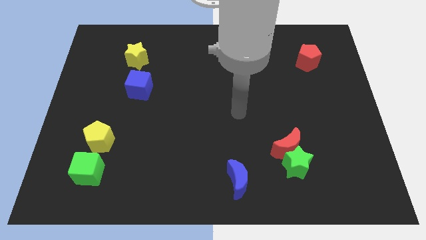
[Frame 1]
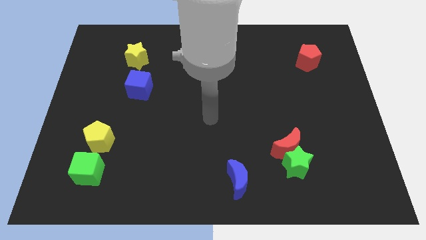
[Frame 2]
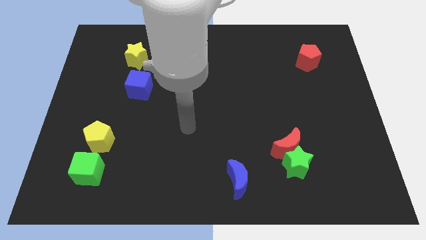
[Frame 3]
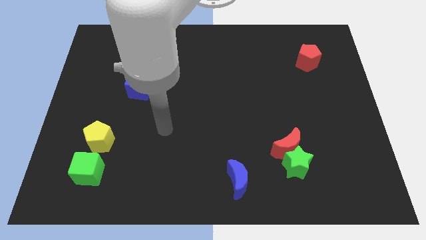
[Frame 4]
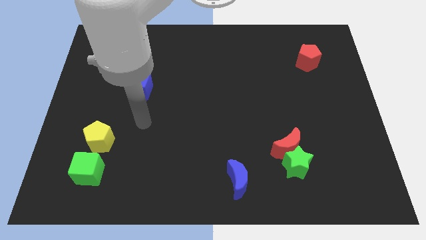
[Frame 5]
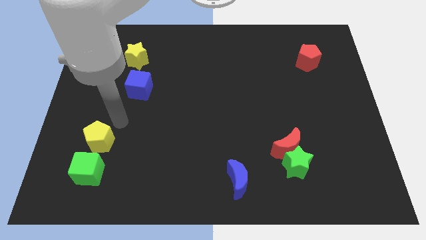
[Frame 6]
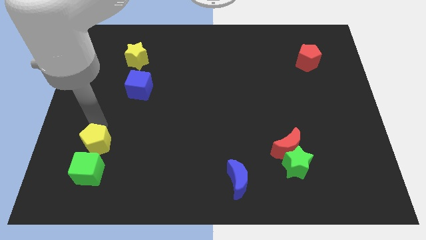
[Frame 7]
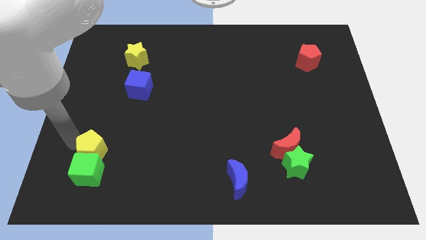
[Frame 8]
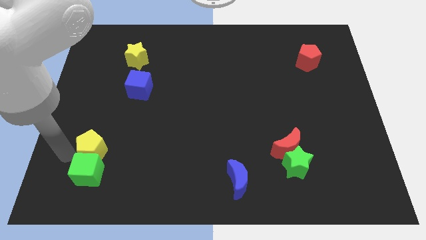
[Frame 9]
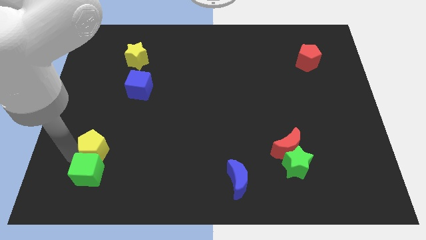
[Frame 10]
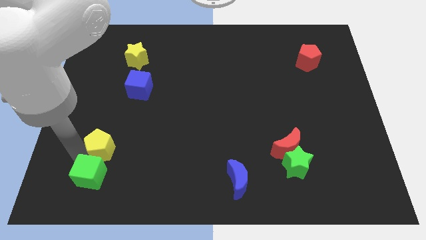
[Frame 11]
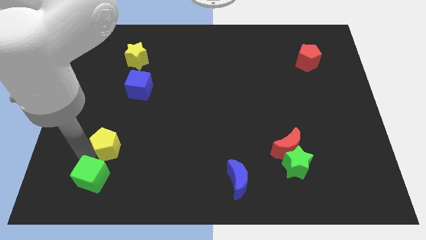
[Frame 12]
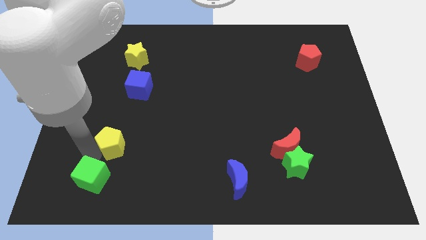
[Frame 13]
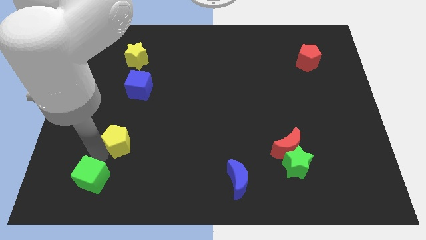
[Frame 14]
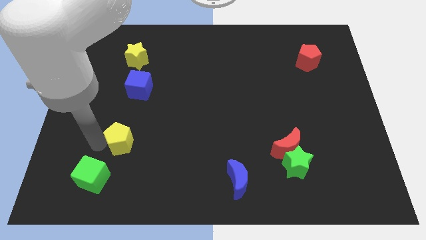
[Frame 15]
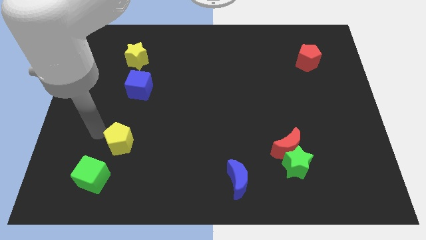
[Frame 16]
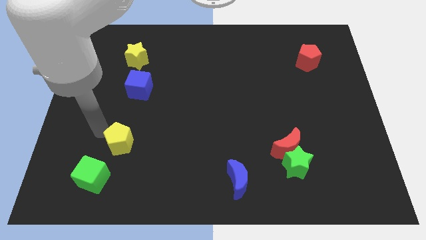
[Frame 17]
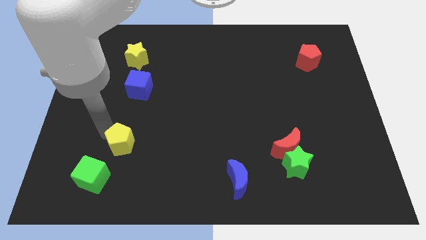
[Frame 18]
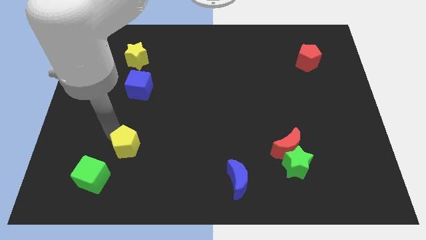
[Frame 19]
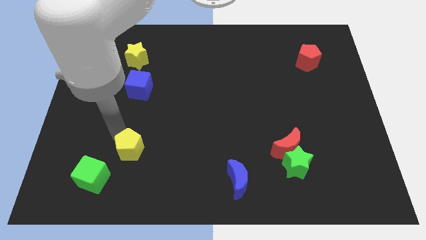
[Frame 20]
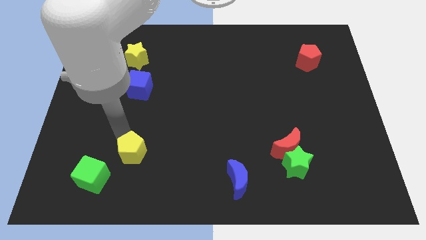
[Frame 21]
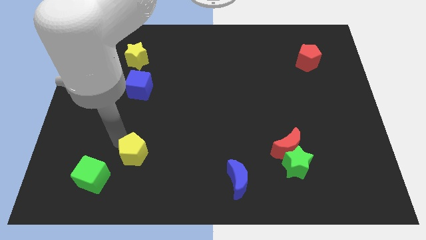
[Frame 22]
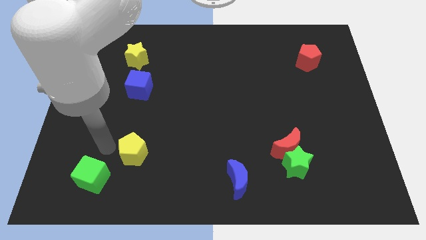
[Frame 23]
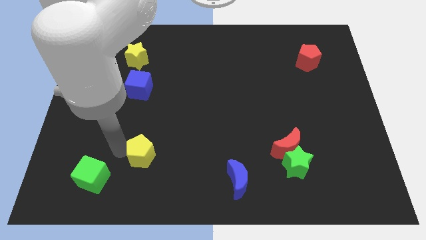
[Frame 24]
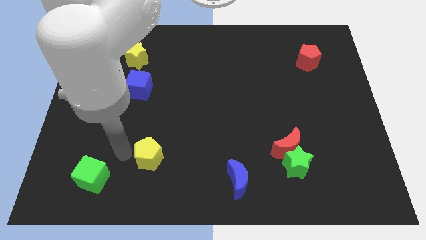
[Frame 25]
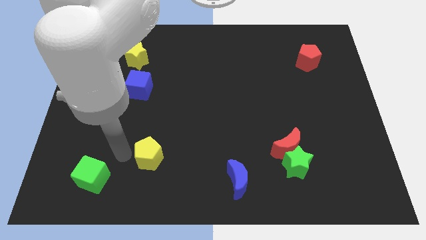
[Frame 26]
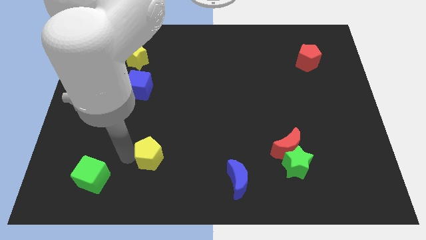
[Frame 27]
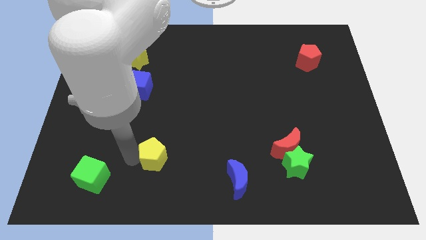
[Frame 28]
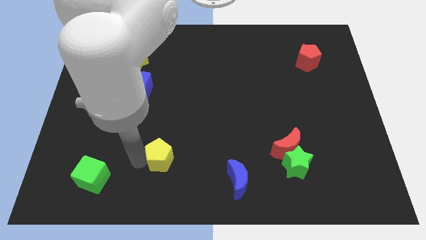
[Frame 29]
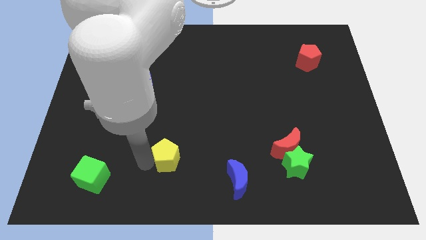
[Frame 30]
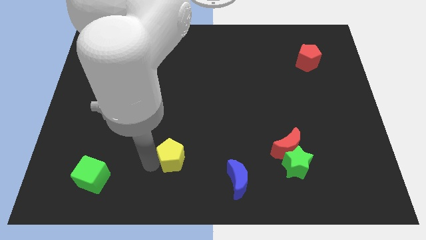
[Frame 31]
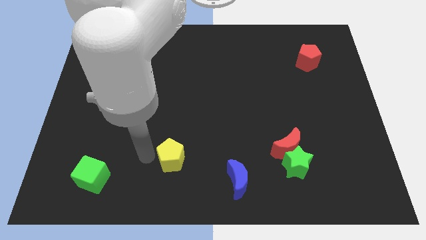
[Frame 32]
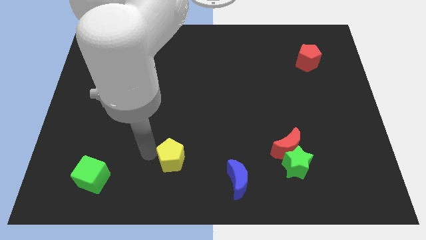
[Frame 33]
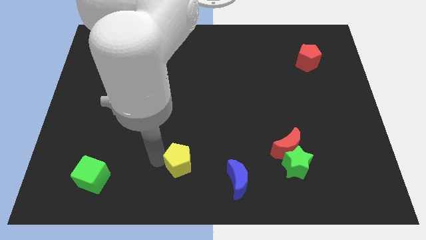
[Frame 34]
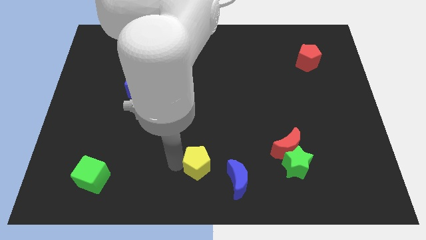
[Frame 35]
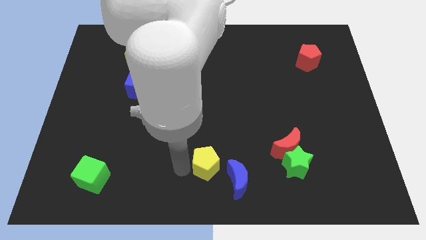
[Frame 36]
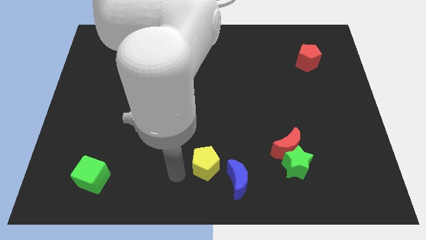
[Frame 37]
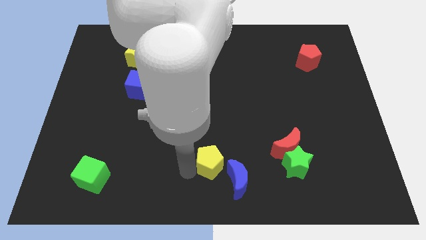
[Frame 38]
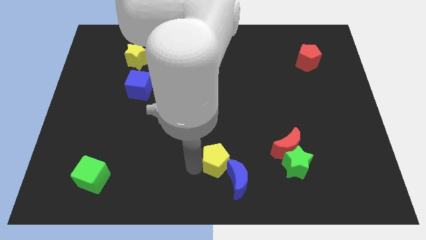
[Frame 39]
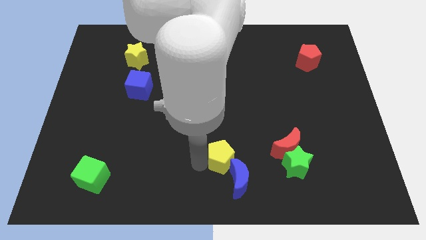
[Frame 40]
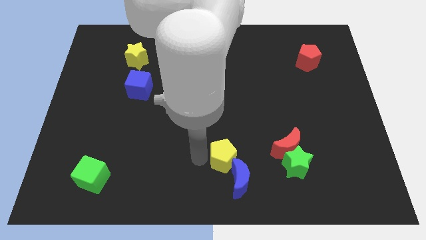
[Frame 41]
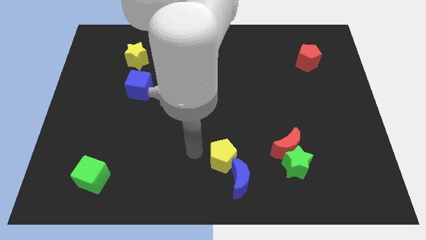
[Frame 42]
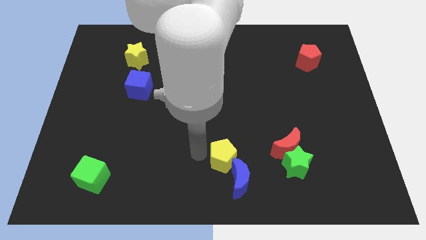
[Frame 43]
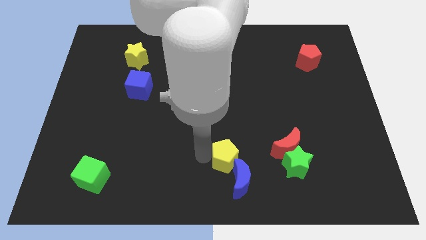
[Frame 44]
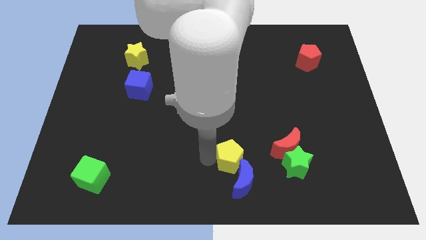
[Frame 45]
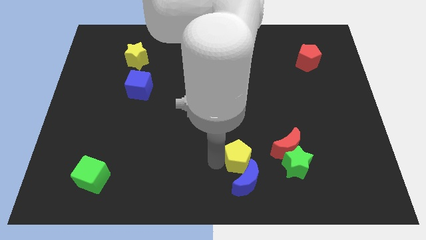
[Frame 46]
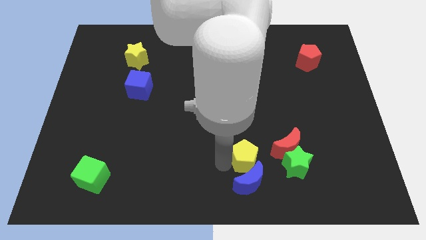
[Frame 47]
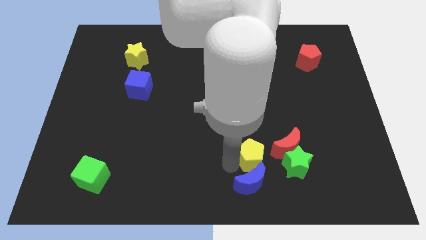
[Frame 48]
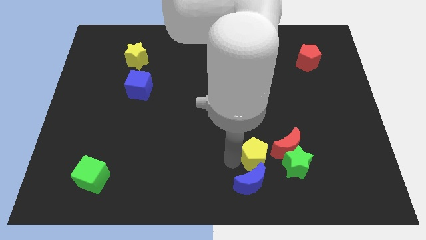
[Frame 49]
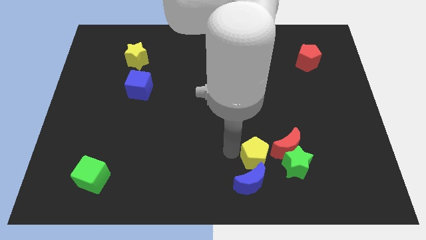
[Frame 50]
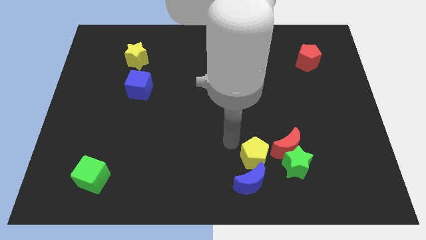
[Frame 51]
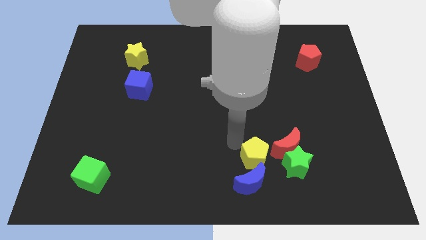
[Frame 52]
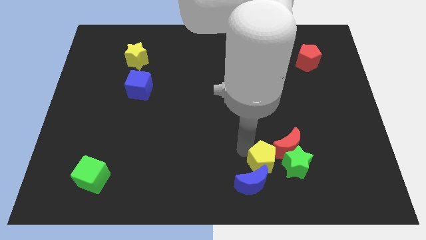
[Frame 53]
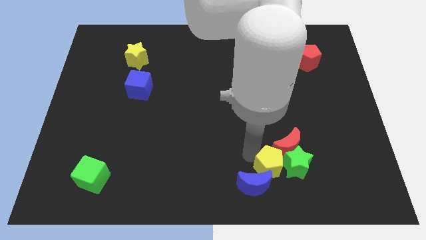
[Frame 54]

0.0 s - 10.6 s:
slide the yellow pentagon to the green star

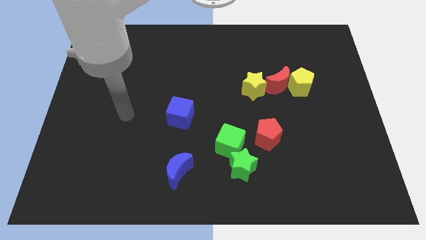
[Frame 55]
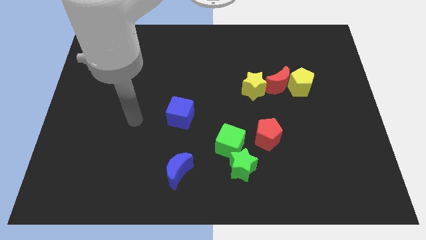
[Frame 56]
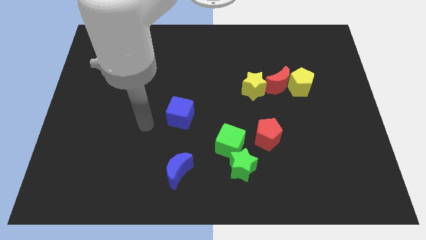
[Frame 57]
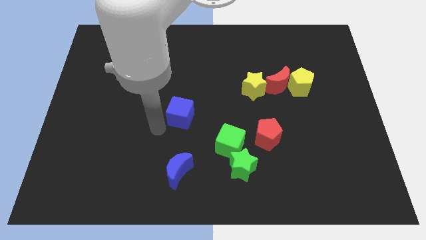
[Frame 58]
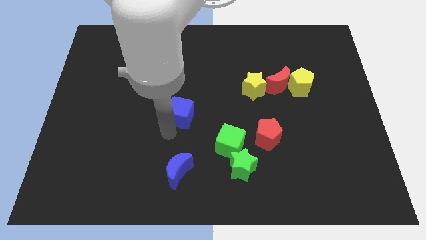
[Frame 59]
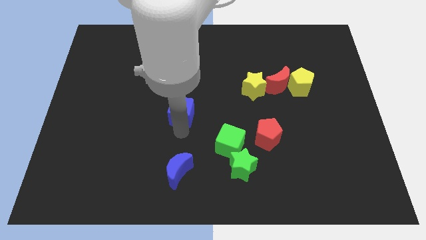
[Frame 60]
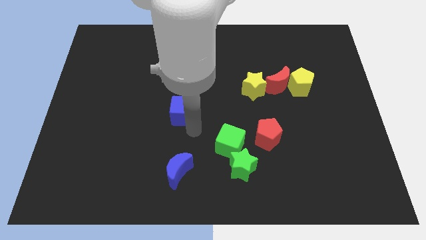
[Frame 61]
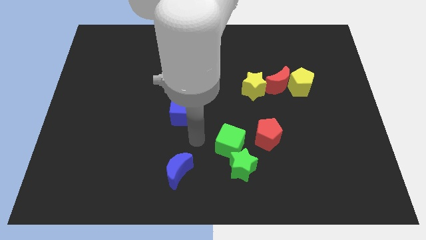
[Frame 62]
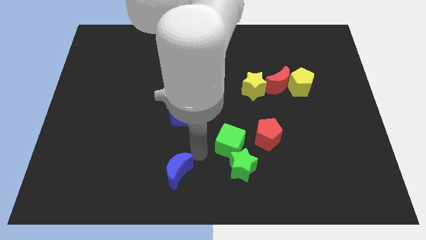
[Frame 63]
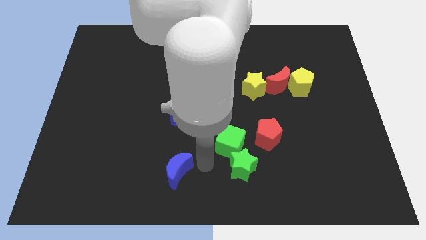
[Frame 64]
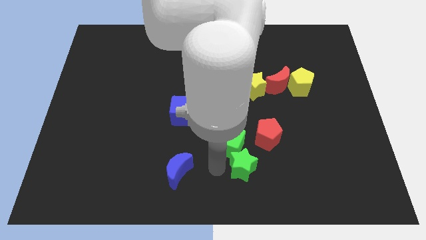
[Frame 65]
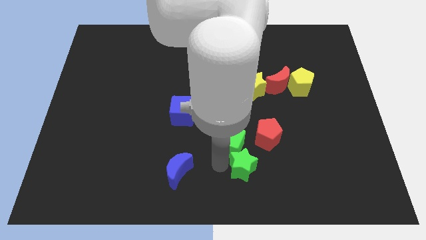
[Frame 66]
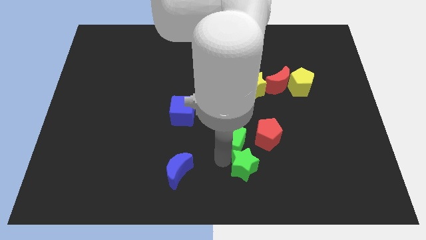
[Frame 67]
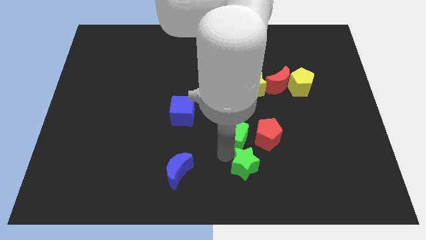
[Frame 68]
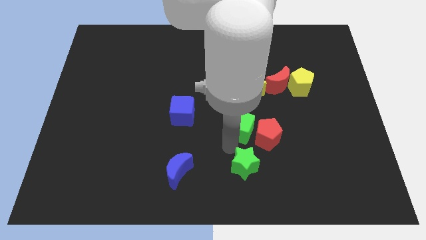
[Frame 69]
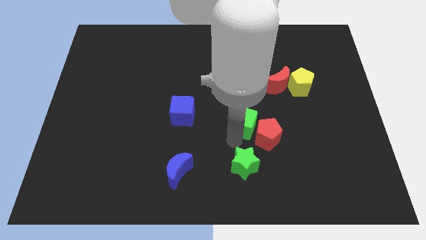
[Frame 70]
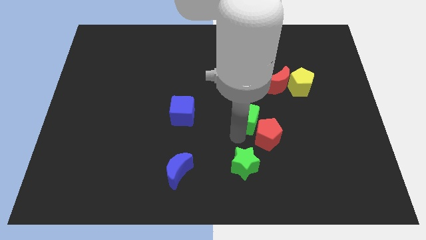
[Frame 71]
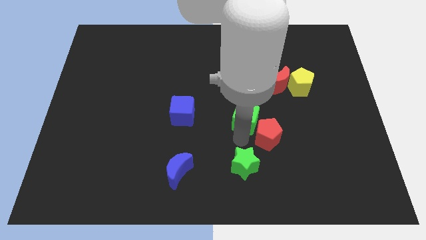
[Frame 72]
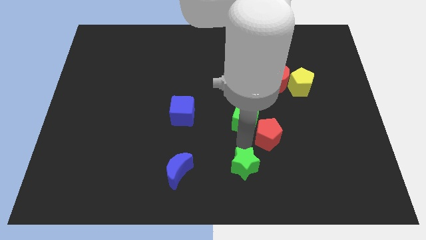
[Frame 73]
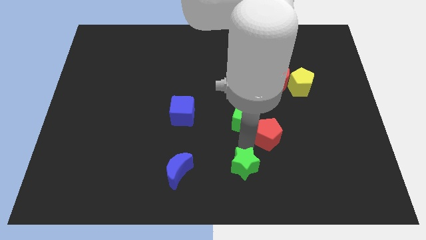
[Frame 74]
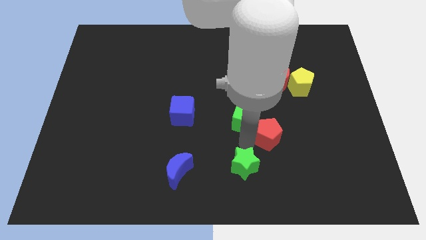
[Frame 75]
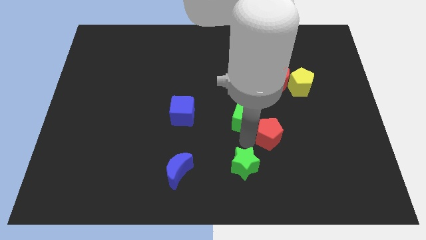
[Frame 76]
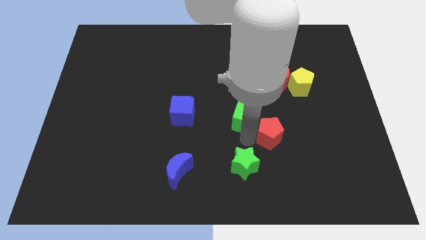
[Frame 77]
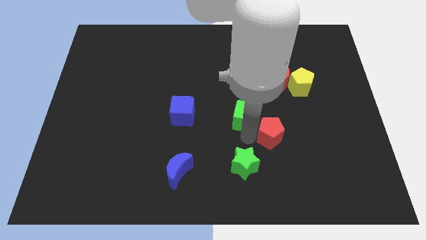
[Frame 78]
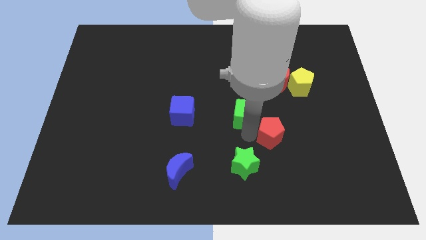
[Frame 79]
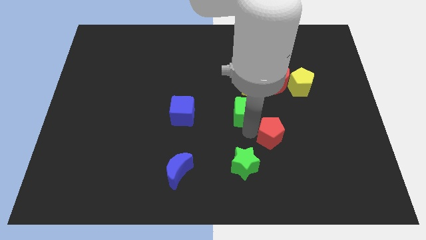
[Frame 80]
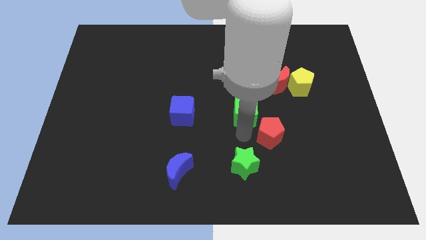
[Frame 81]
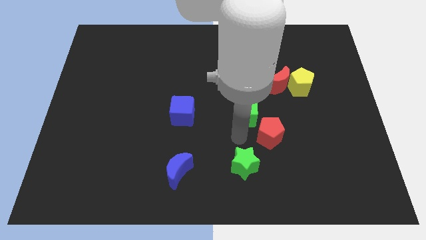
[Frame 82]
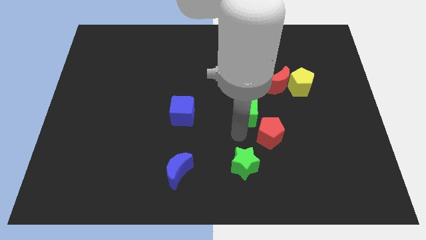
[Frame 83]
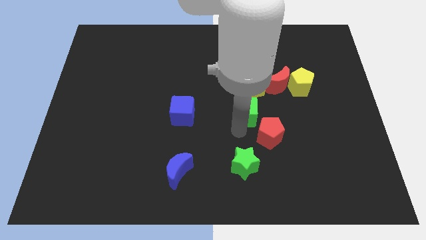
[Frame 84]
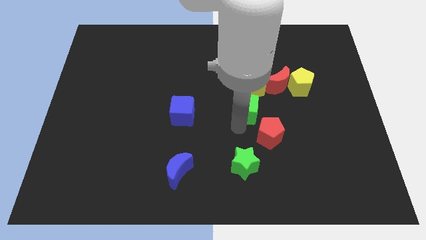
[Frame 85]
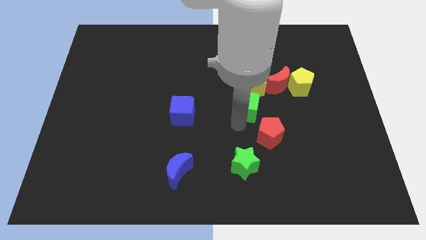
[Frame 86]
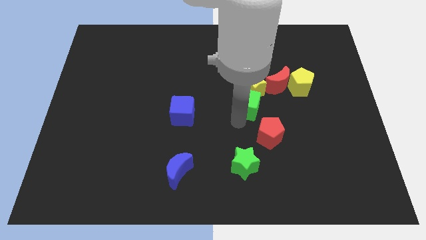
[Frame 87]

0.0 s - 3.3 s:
push the green cube towards the yellow star
